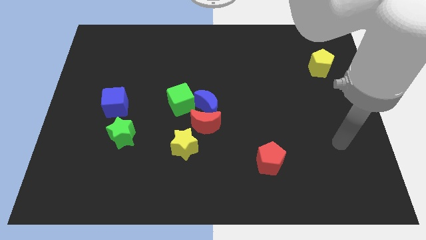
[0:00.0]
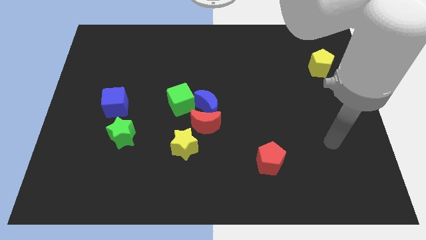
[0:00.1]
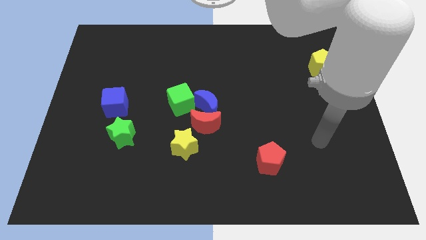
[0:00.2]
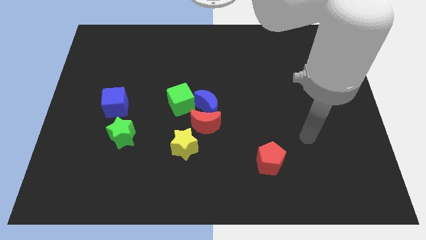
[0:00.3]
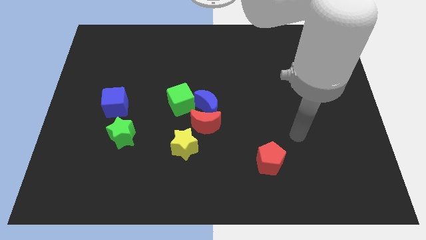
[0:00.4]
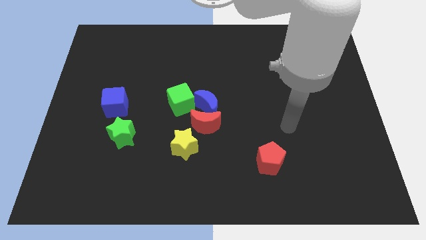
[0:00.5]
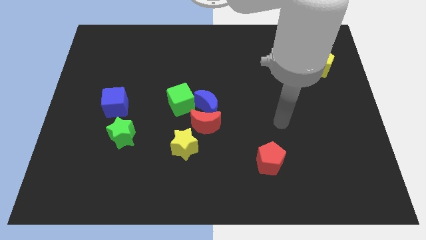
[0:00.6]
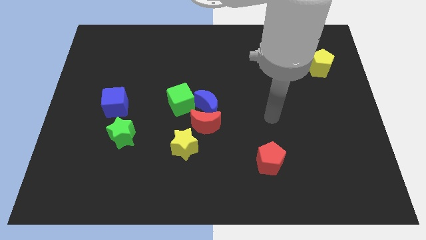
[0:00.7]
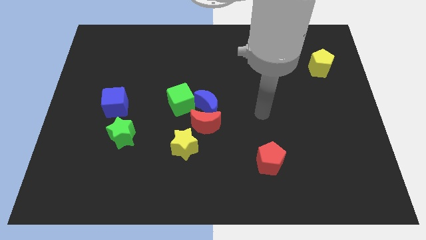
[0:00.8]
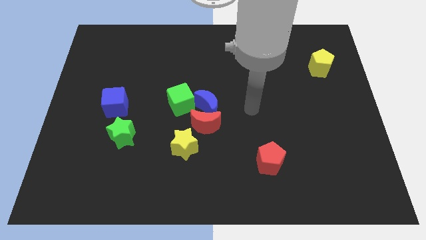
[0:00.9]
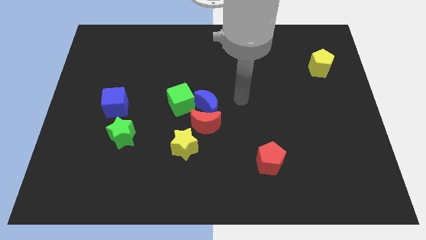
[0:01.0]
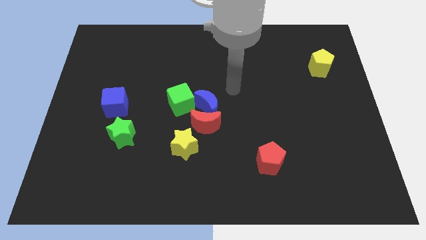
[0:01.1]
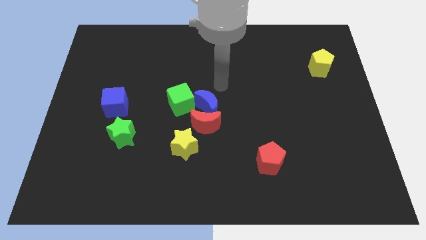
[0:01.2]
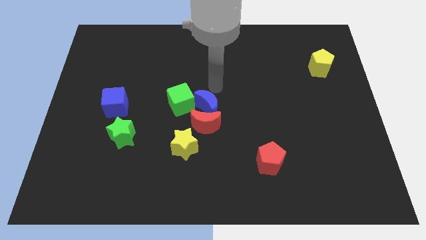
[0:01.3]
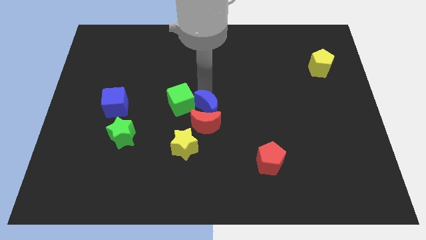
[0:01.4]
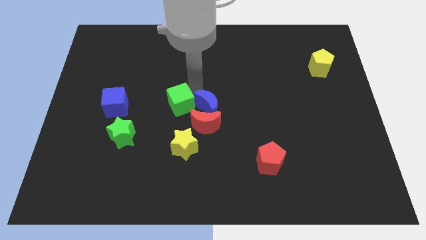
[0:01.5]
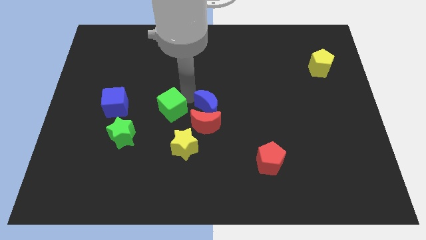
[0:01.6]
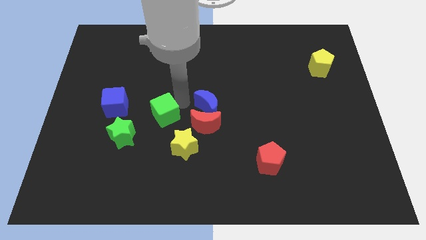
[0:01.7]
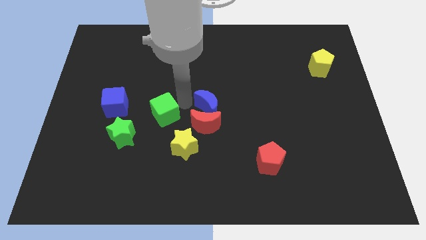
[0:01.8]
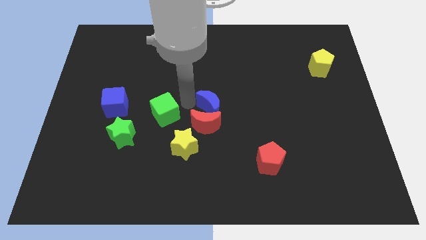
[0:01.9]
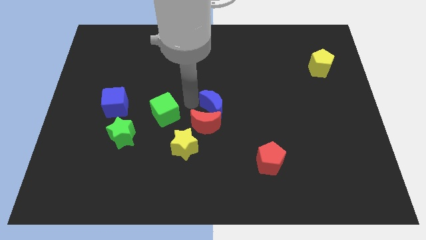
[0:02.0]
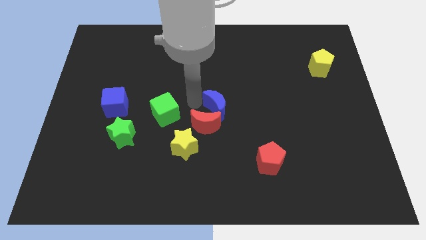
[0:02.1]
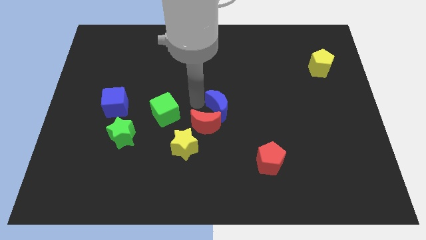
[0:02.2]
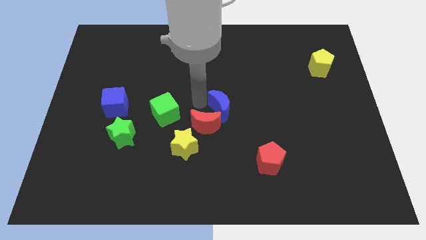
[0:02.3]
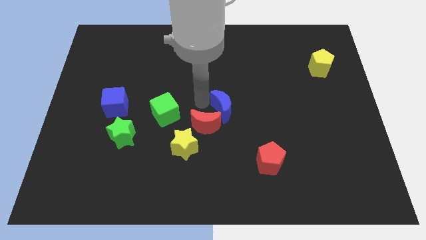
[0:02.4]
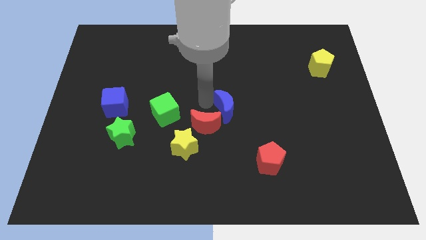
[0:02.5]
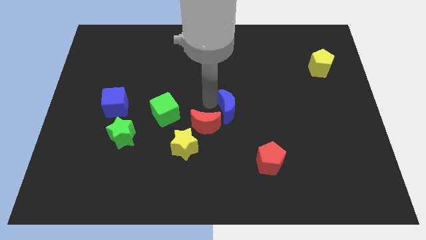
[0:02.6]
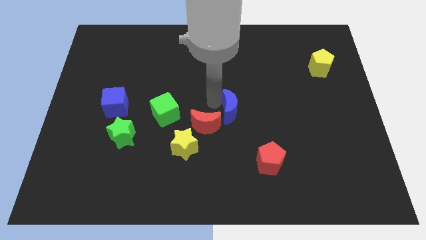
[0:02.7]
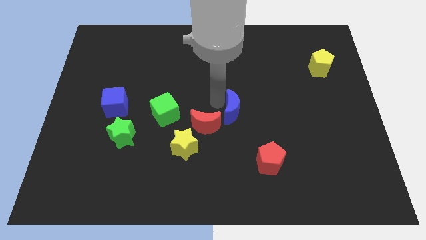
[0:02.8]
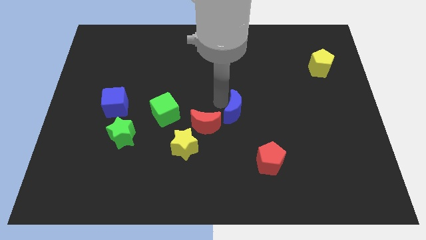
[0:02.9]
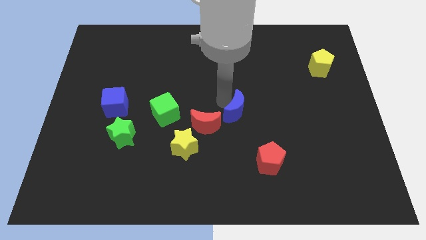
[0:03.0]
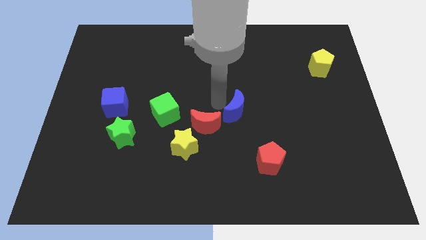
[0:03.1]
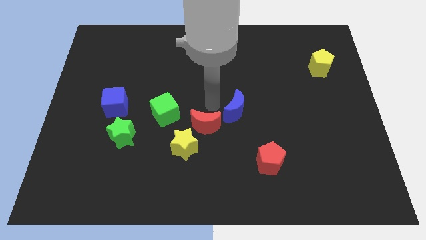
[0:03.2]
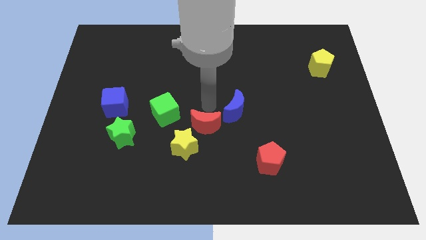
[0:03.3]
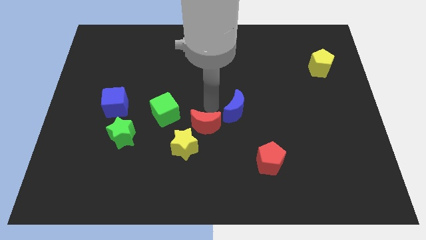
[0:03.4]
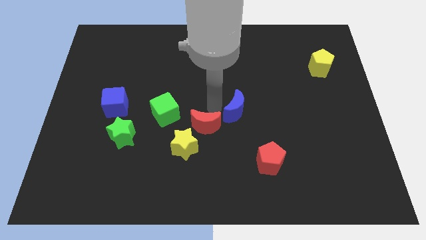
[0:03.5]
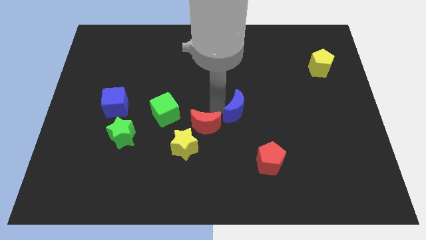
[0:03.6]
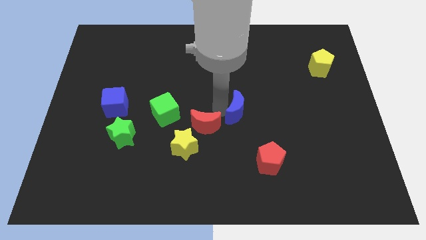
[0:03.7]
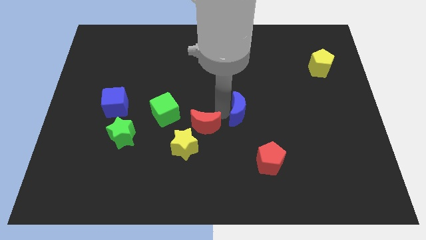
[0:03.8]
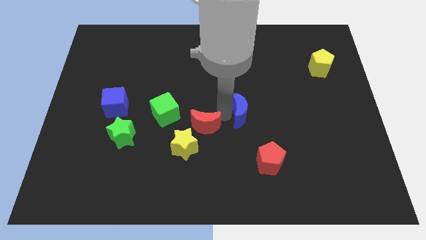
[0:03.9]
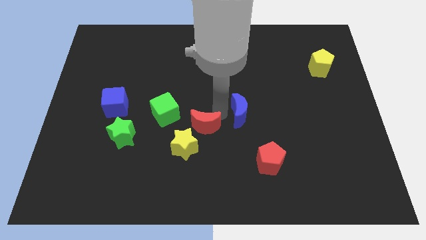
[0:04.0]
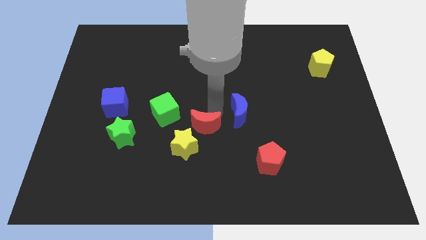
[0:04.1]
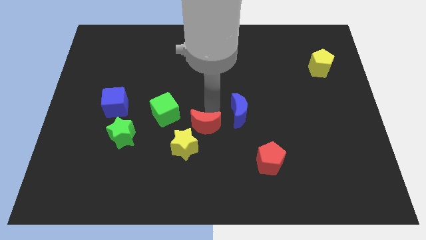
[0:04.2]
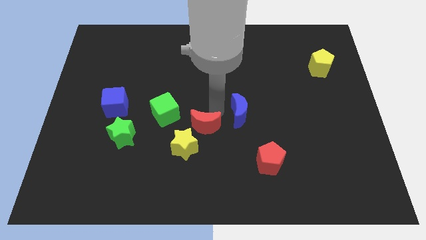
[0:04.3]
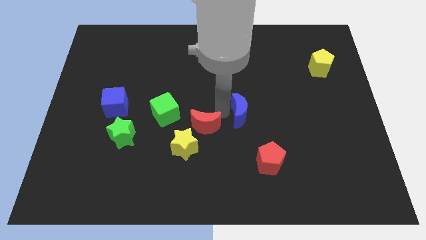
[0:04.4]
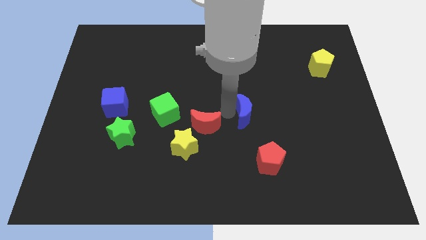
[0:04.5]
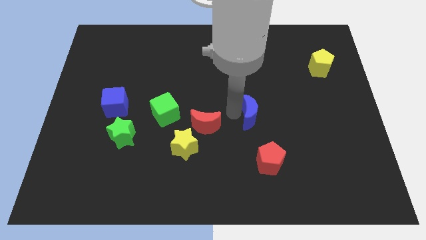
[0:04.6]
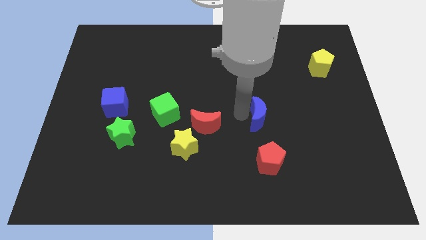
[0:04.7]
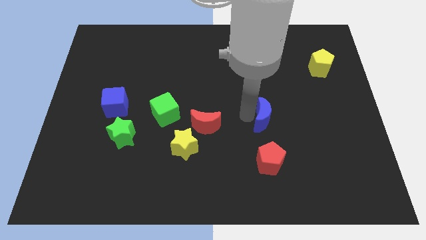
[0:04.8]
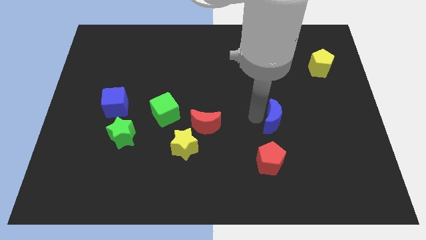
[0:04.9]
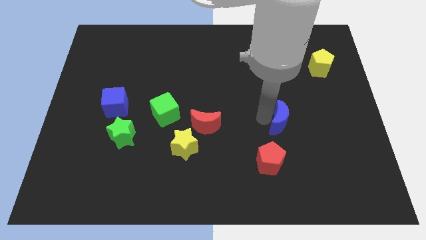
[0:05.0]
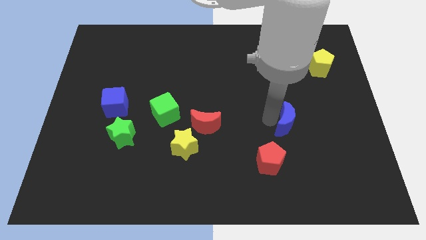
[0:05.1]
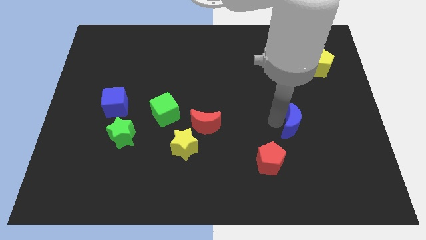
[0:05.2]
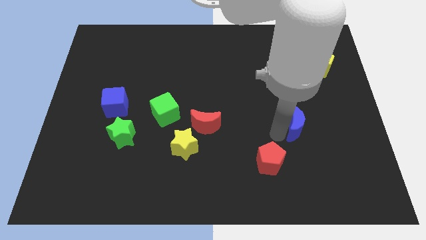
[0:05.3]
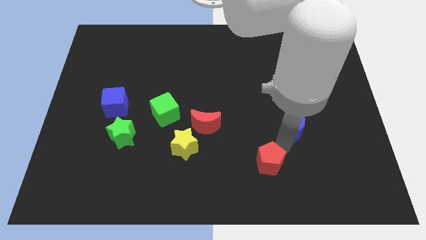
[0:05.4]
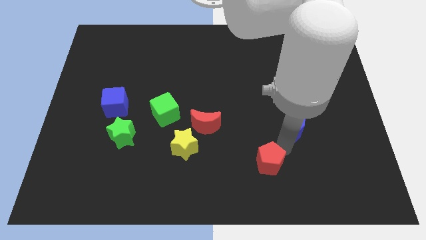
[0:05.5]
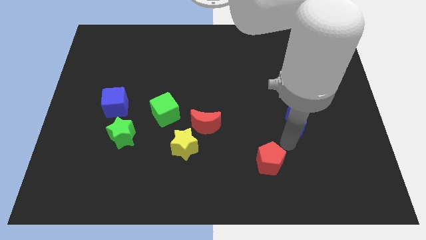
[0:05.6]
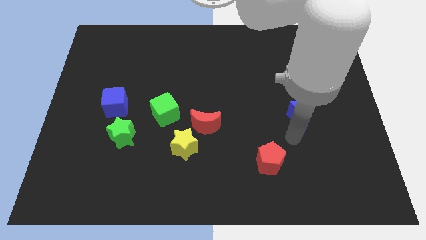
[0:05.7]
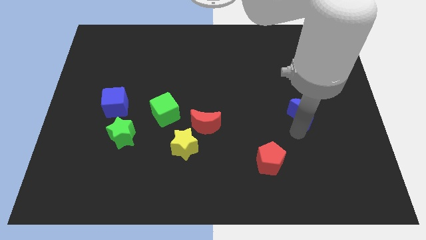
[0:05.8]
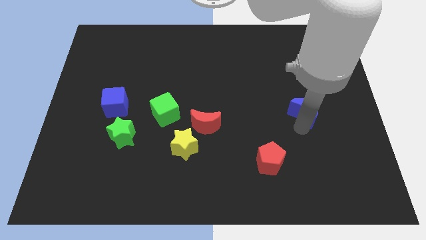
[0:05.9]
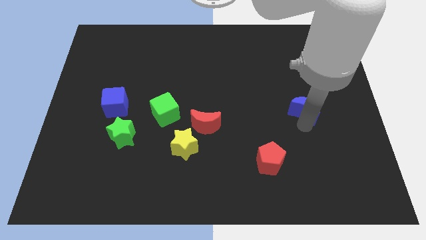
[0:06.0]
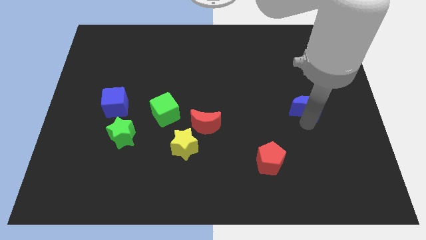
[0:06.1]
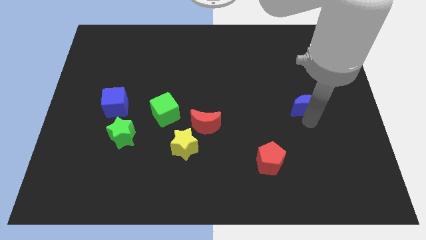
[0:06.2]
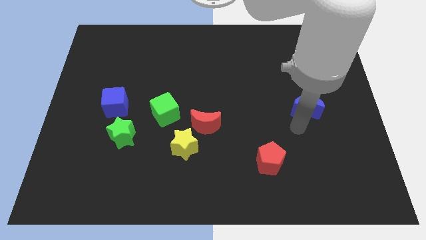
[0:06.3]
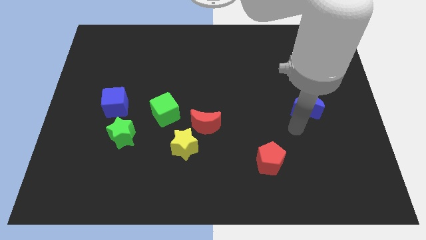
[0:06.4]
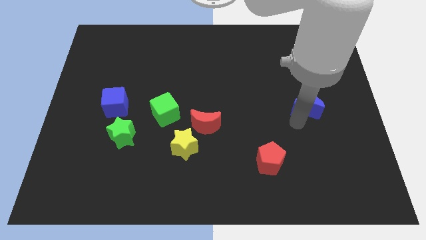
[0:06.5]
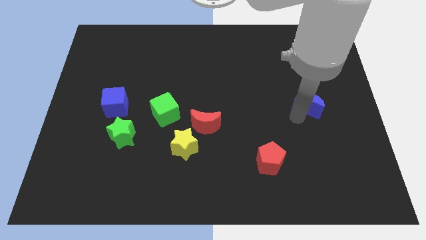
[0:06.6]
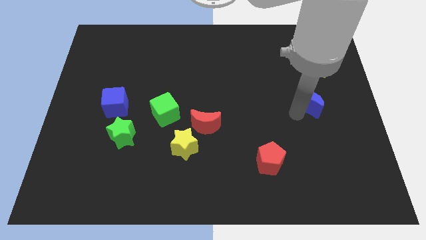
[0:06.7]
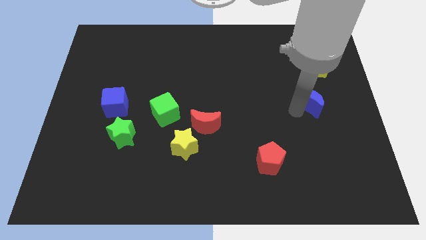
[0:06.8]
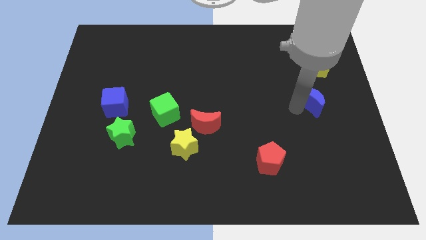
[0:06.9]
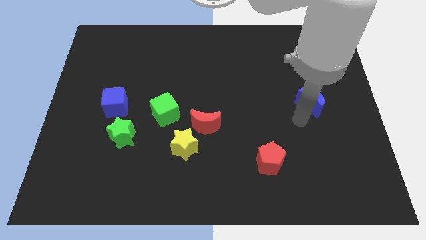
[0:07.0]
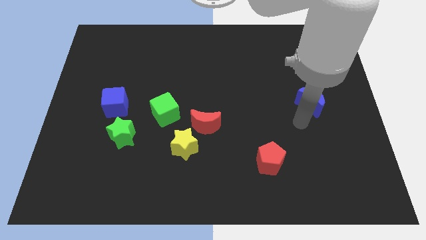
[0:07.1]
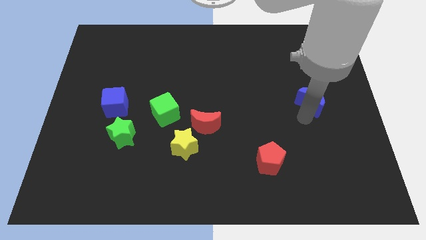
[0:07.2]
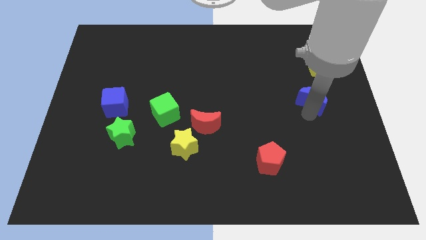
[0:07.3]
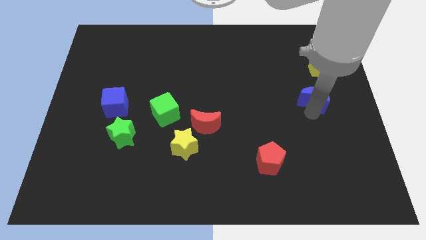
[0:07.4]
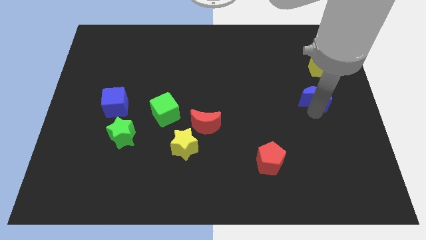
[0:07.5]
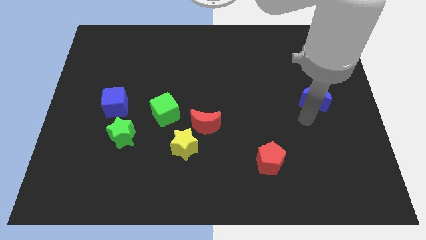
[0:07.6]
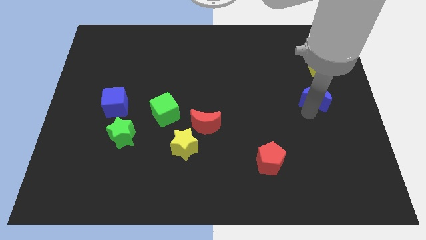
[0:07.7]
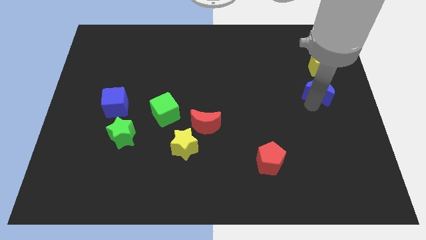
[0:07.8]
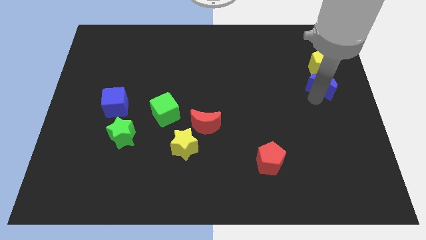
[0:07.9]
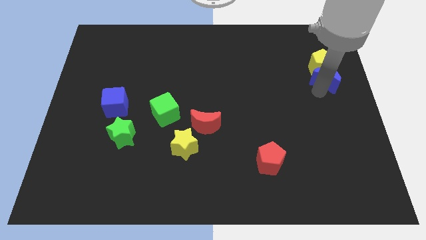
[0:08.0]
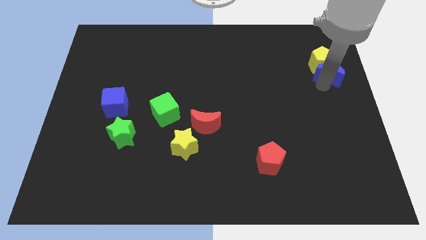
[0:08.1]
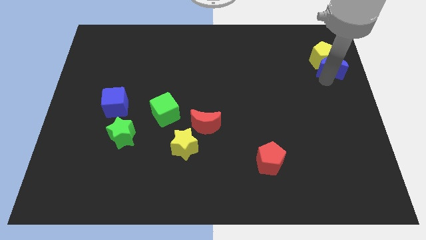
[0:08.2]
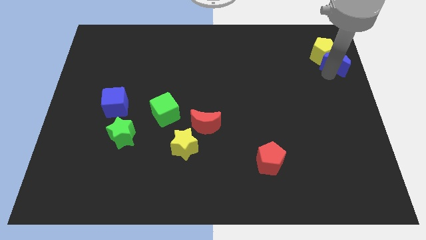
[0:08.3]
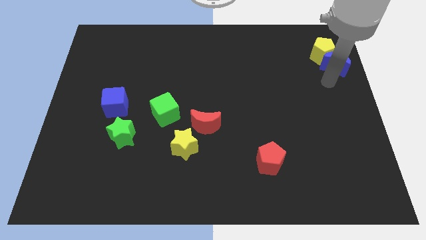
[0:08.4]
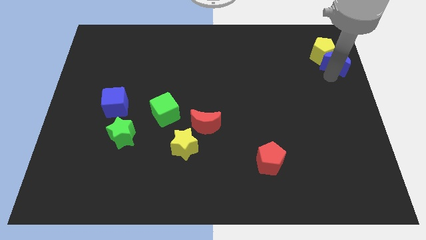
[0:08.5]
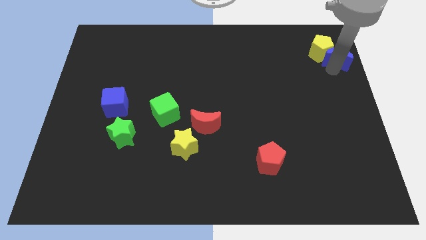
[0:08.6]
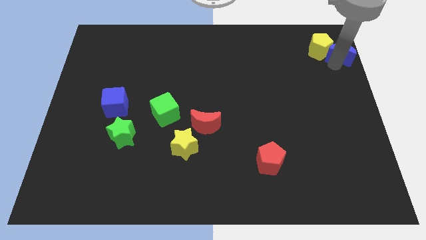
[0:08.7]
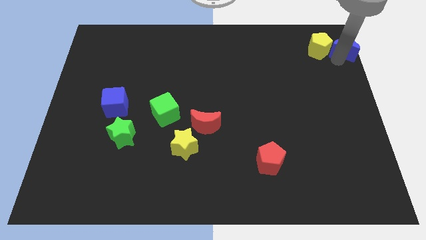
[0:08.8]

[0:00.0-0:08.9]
put the blue moon to the top right corner
